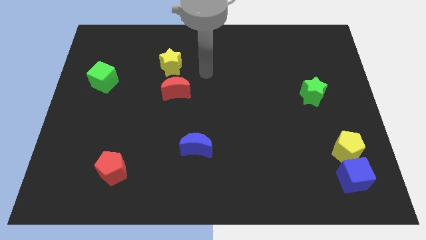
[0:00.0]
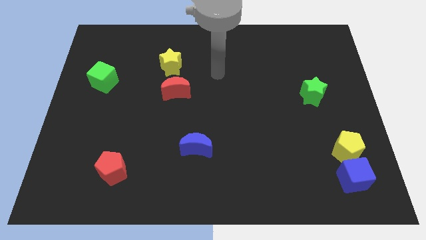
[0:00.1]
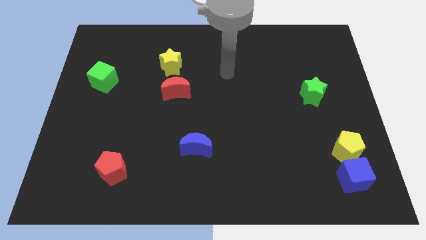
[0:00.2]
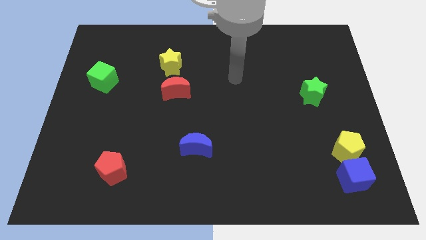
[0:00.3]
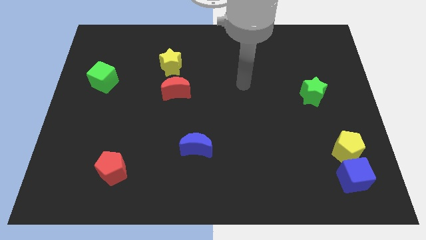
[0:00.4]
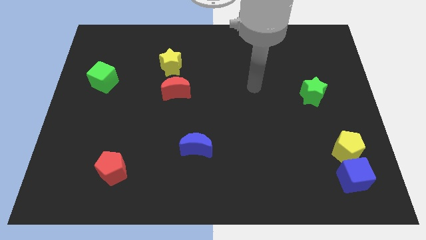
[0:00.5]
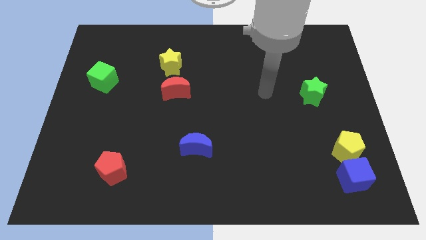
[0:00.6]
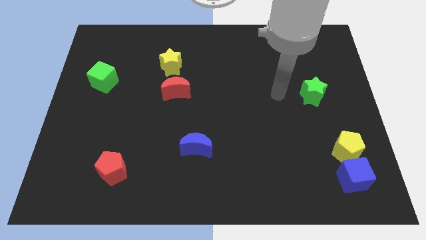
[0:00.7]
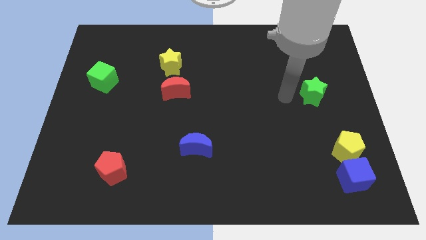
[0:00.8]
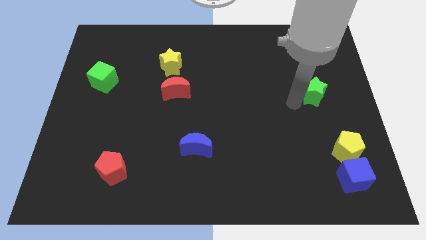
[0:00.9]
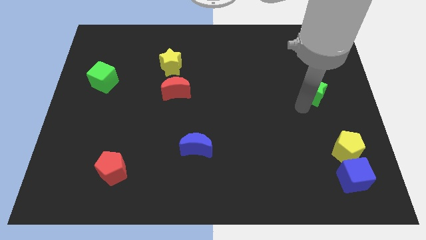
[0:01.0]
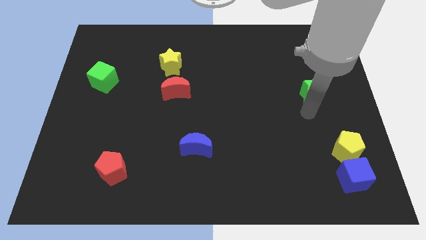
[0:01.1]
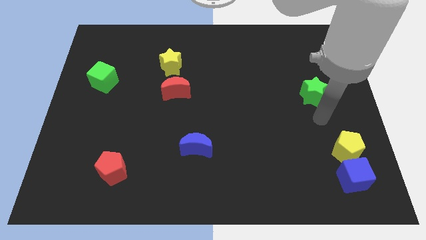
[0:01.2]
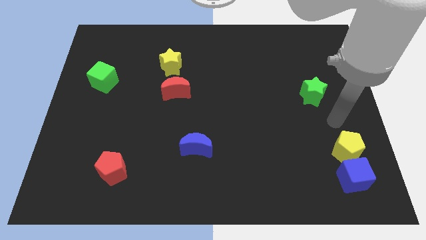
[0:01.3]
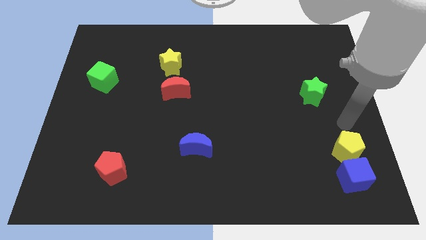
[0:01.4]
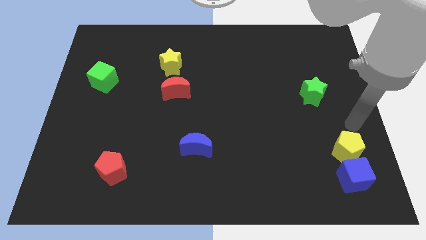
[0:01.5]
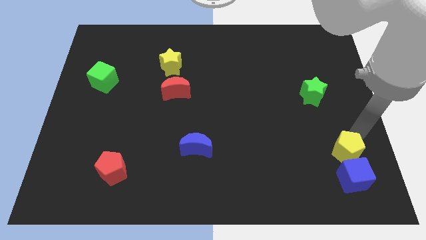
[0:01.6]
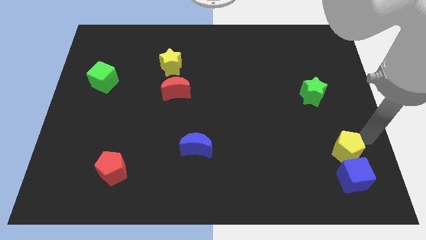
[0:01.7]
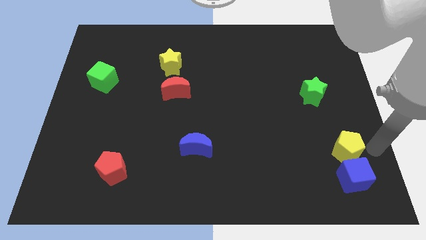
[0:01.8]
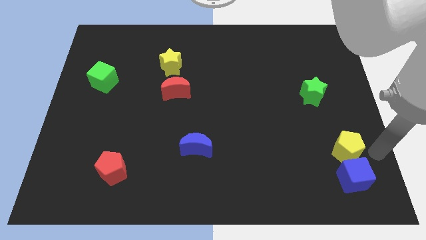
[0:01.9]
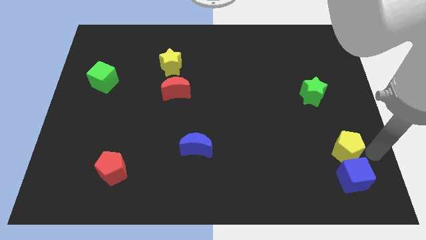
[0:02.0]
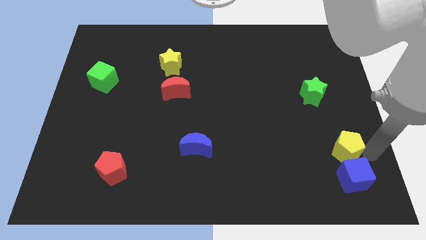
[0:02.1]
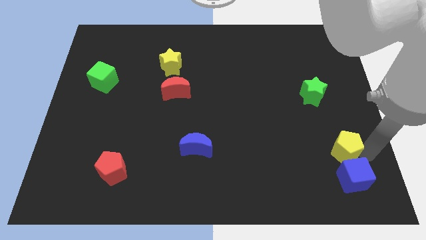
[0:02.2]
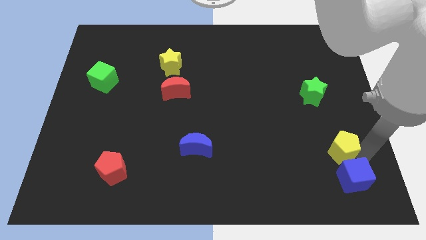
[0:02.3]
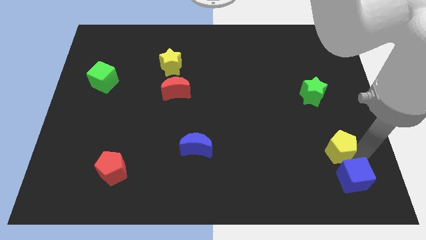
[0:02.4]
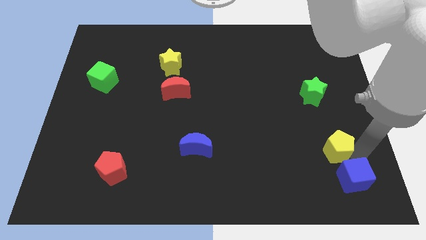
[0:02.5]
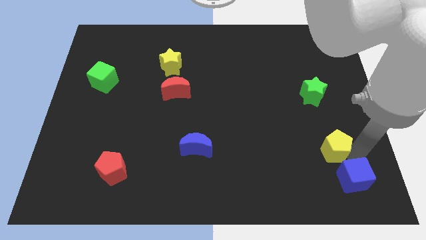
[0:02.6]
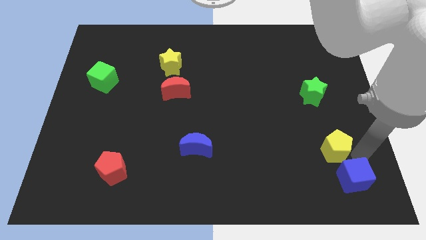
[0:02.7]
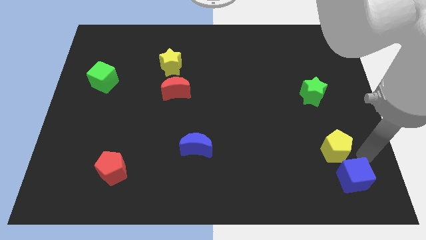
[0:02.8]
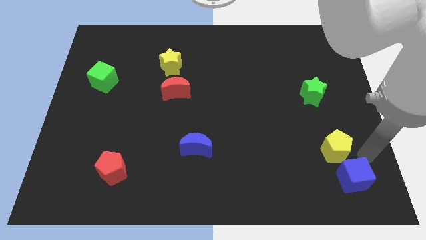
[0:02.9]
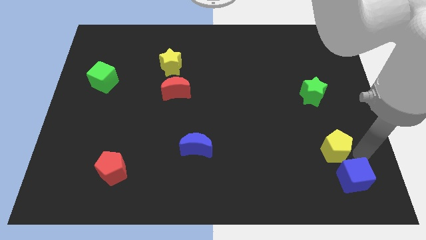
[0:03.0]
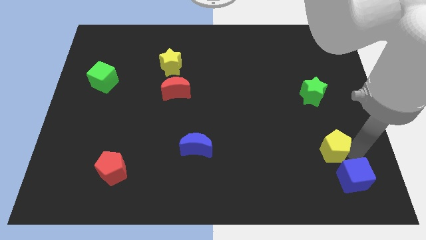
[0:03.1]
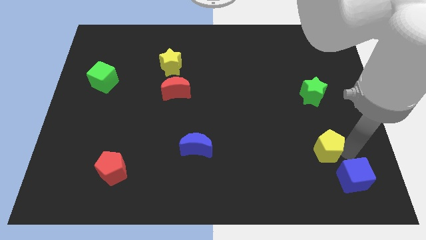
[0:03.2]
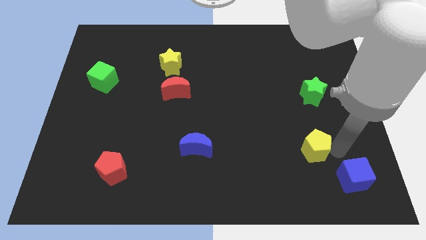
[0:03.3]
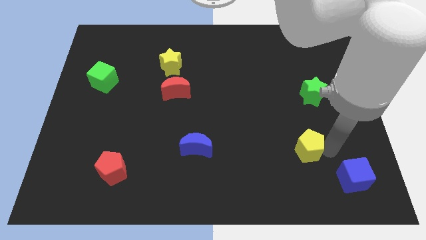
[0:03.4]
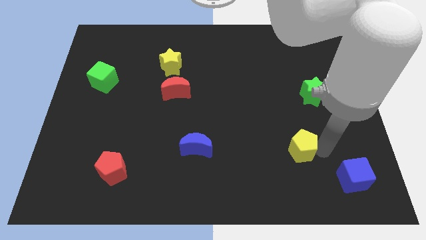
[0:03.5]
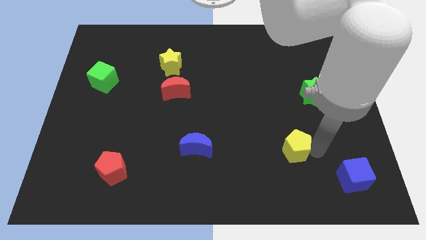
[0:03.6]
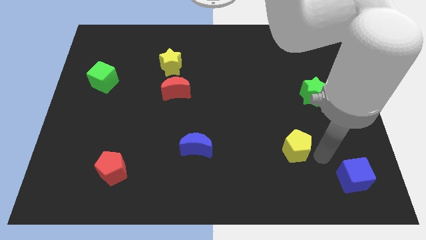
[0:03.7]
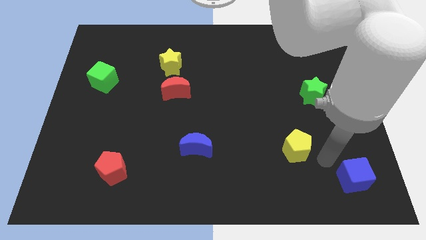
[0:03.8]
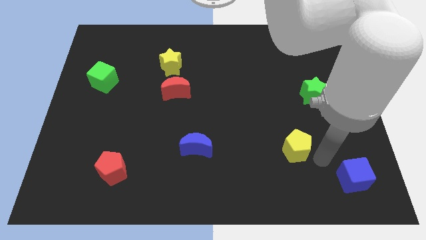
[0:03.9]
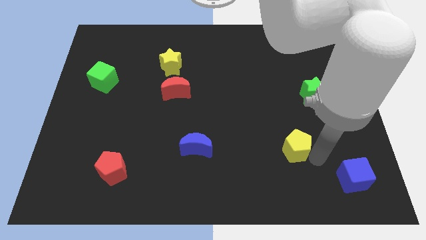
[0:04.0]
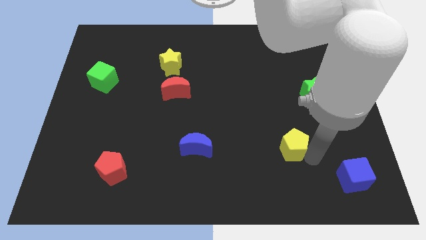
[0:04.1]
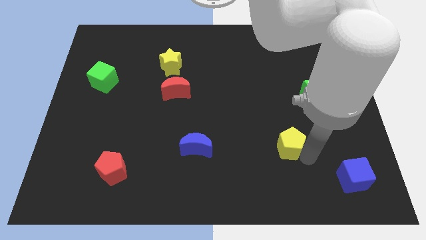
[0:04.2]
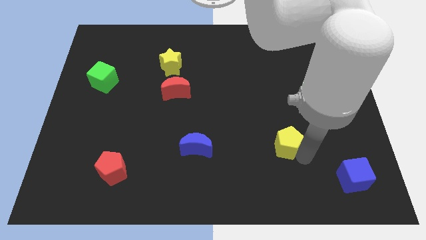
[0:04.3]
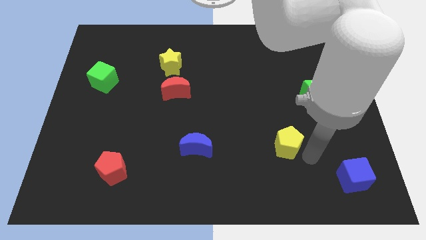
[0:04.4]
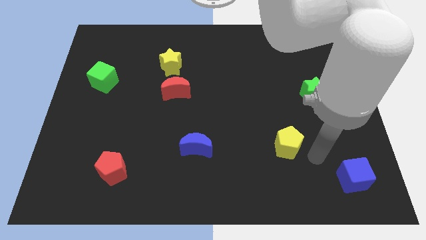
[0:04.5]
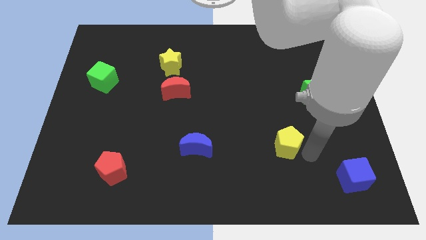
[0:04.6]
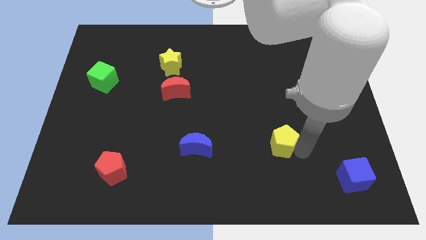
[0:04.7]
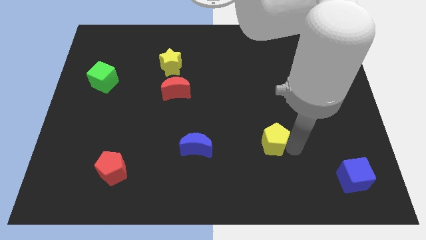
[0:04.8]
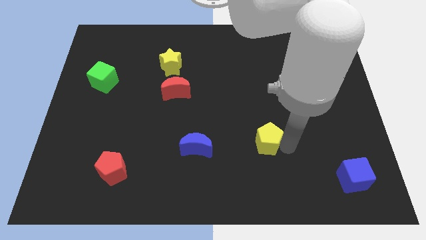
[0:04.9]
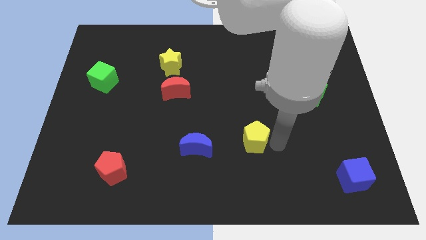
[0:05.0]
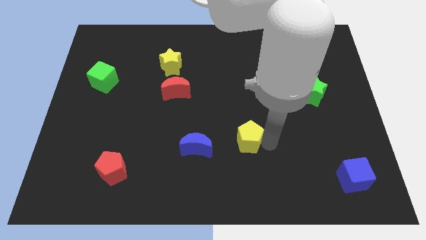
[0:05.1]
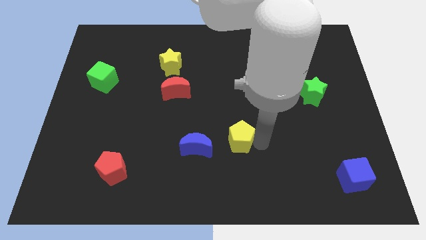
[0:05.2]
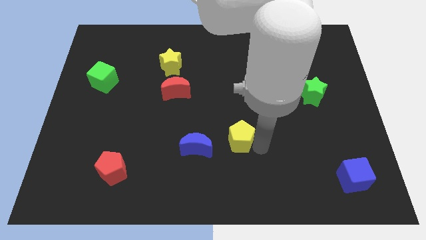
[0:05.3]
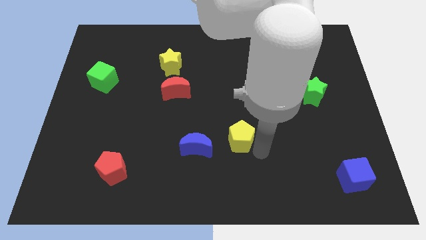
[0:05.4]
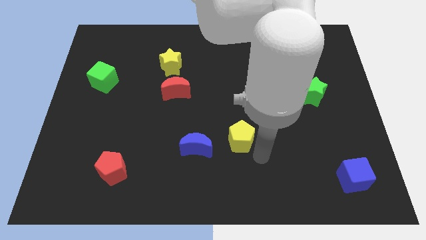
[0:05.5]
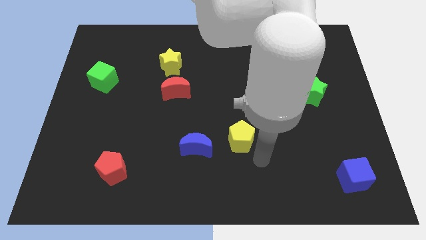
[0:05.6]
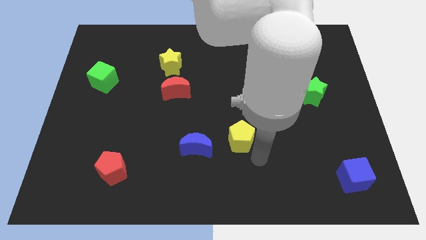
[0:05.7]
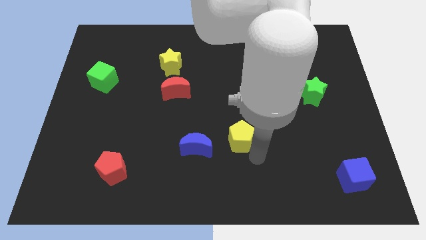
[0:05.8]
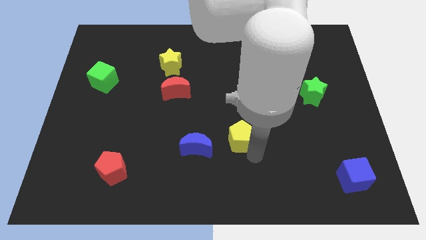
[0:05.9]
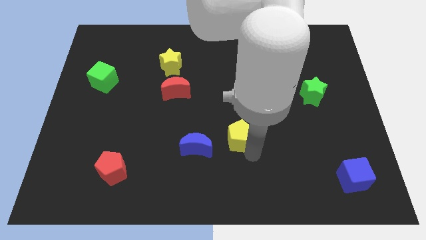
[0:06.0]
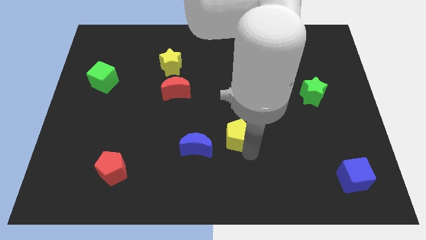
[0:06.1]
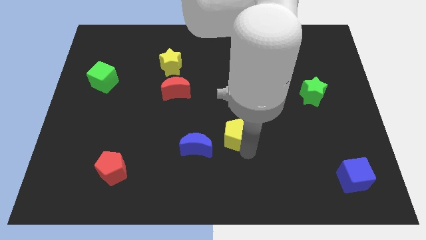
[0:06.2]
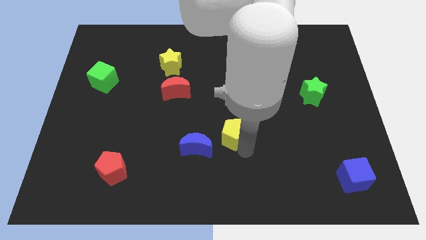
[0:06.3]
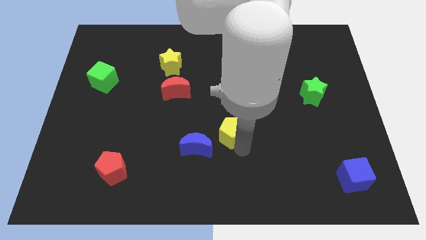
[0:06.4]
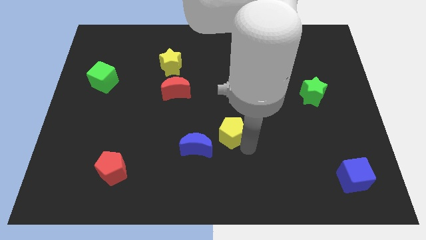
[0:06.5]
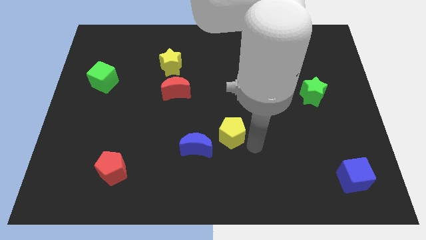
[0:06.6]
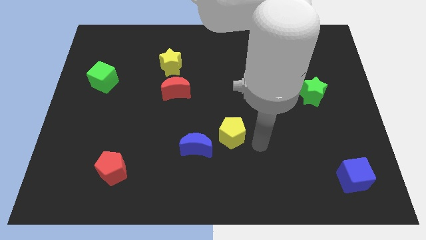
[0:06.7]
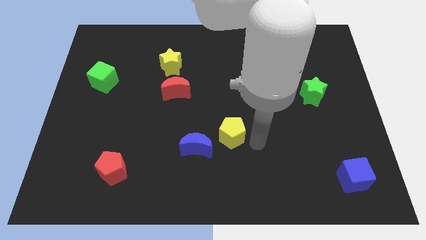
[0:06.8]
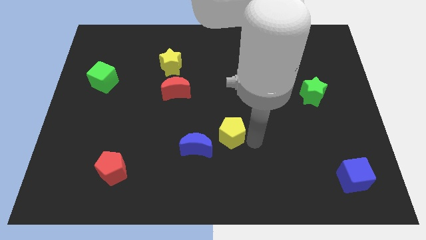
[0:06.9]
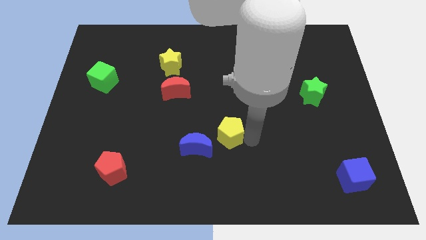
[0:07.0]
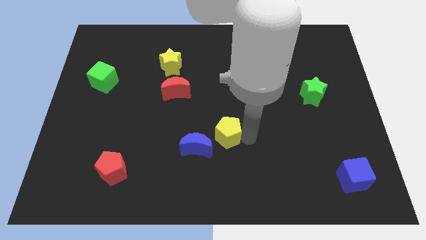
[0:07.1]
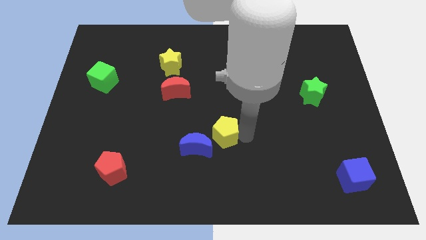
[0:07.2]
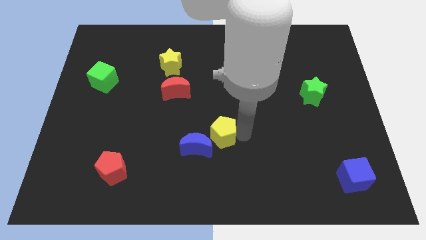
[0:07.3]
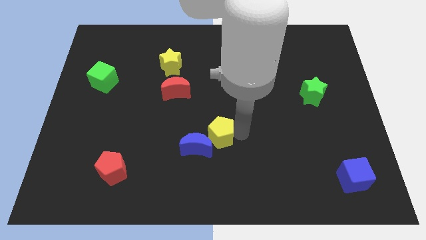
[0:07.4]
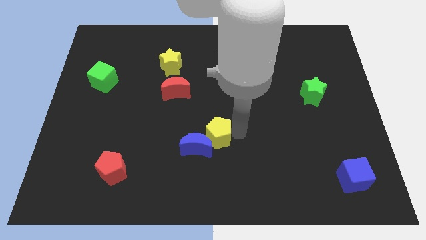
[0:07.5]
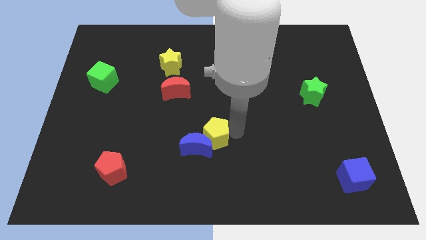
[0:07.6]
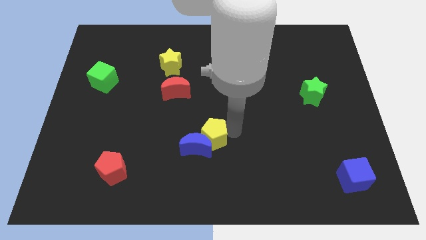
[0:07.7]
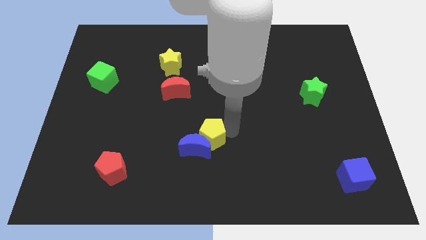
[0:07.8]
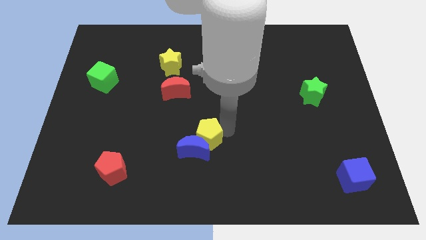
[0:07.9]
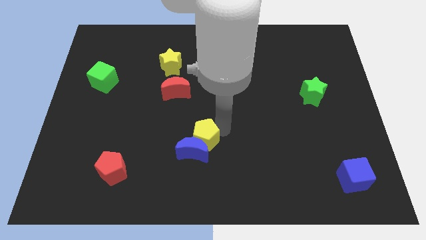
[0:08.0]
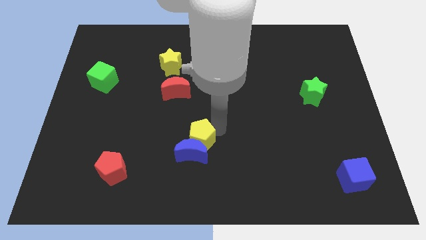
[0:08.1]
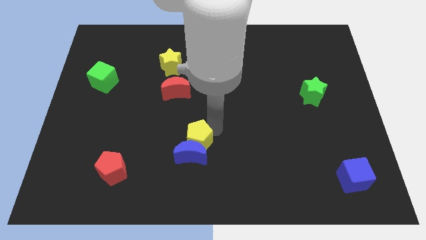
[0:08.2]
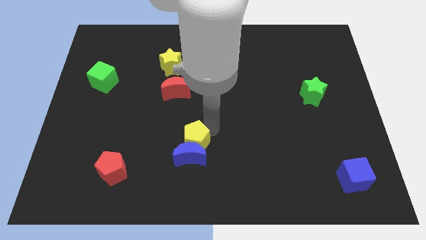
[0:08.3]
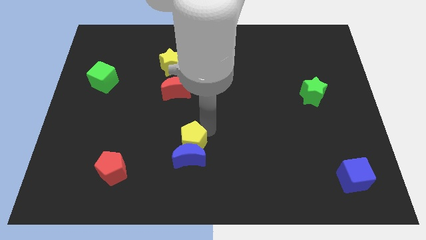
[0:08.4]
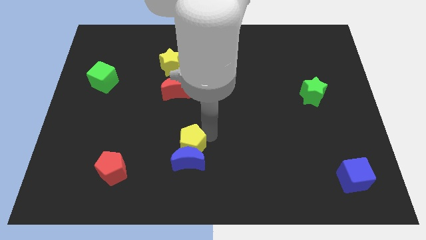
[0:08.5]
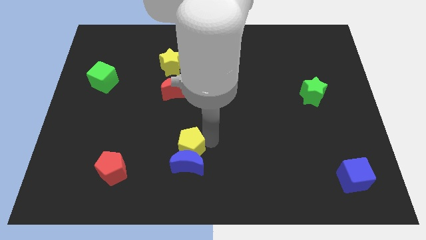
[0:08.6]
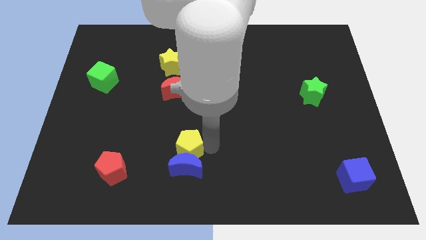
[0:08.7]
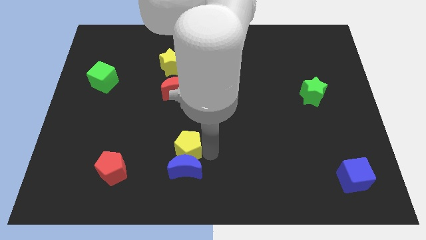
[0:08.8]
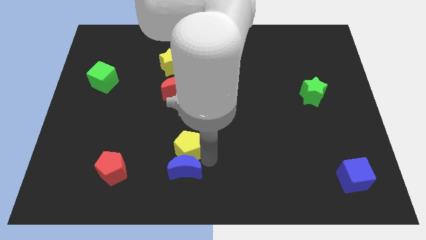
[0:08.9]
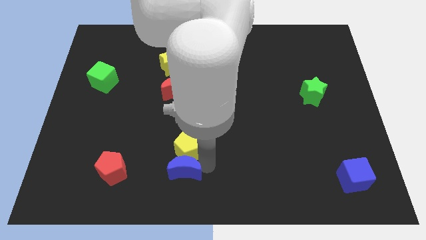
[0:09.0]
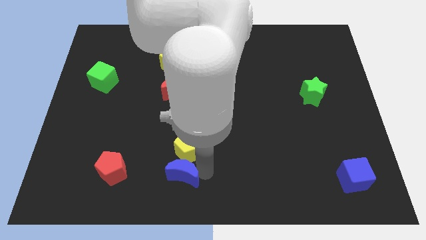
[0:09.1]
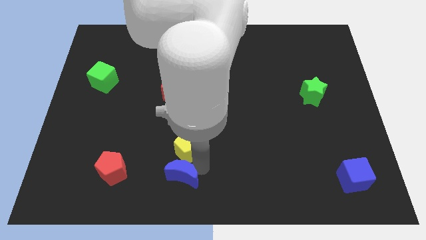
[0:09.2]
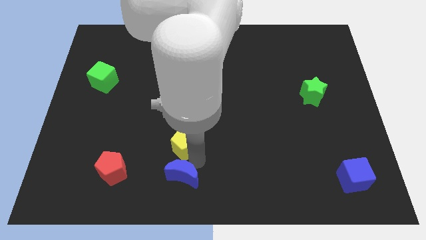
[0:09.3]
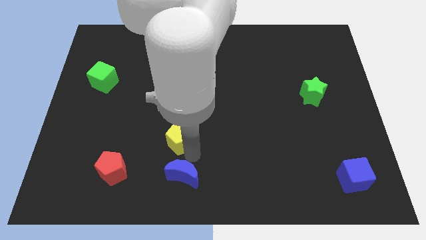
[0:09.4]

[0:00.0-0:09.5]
move the yellow pentagon below the red moon
